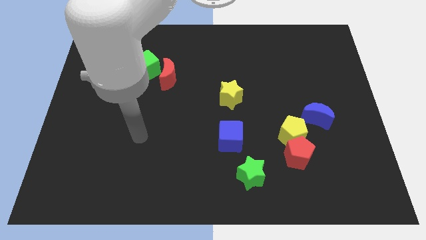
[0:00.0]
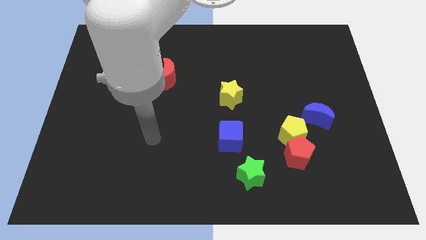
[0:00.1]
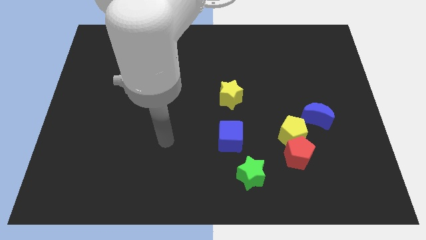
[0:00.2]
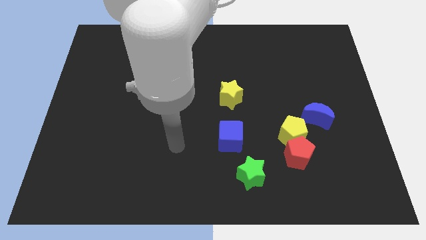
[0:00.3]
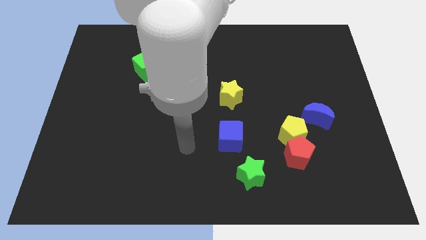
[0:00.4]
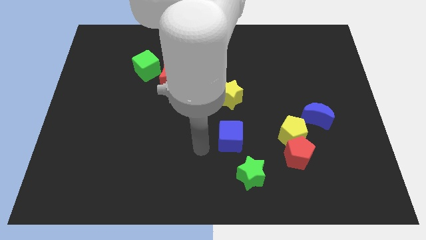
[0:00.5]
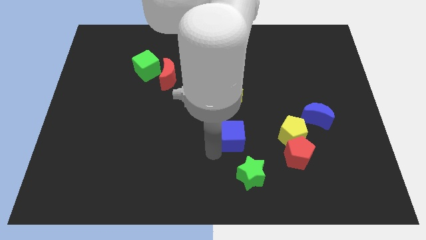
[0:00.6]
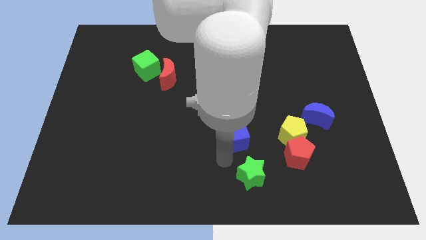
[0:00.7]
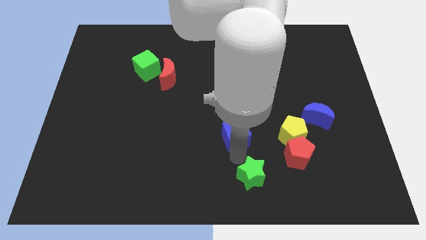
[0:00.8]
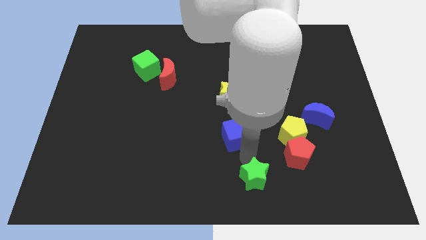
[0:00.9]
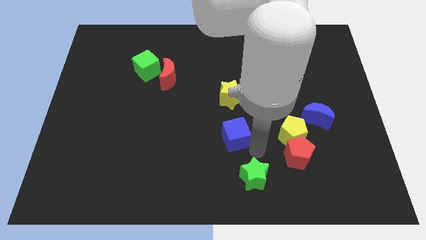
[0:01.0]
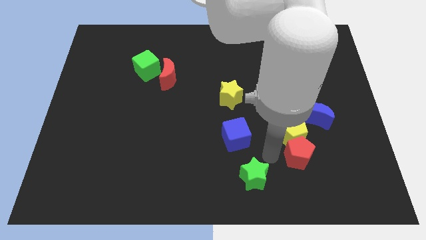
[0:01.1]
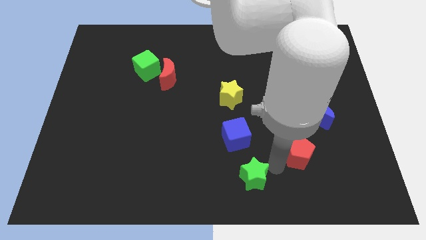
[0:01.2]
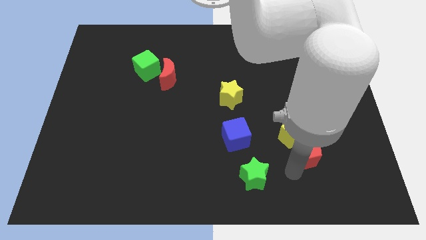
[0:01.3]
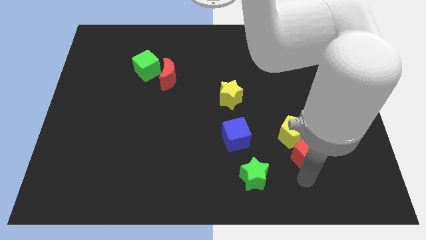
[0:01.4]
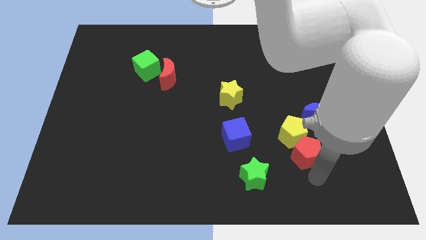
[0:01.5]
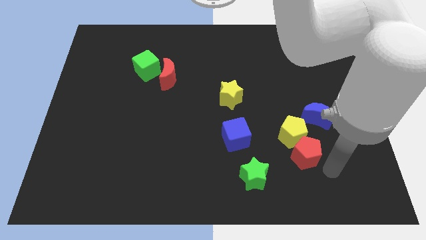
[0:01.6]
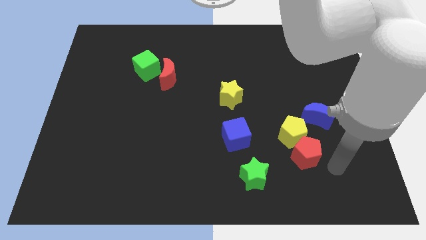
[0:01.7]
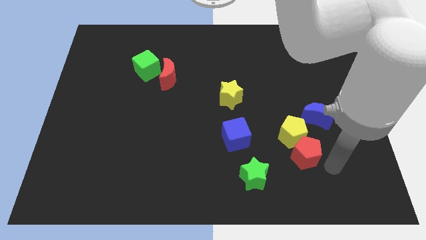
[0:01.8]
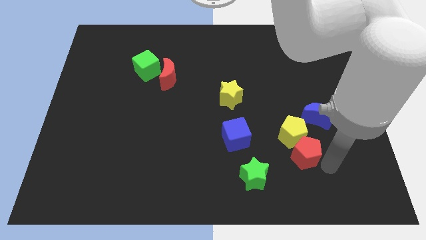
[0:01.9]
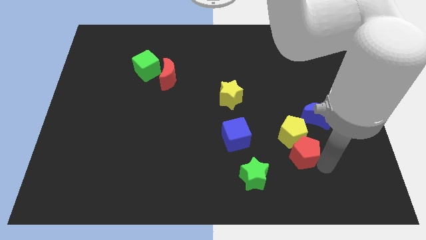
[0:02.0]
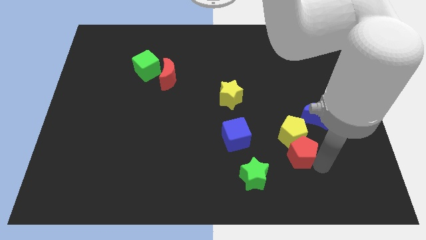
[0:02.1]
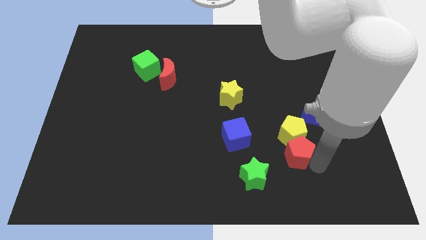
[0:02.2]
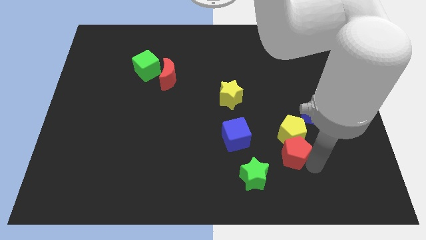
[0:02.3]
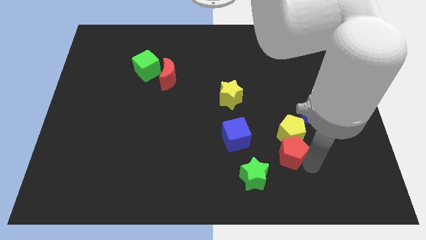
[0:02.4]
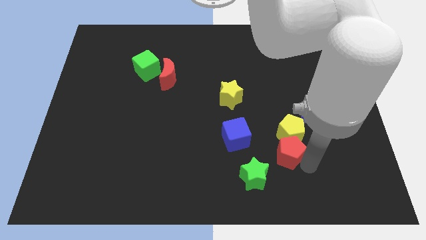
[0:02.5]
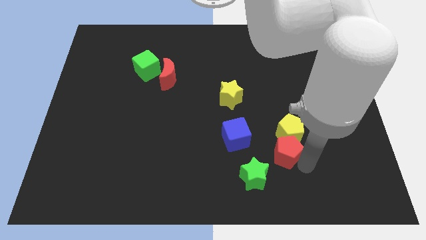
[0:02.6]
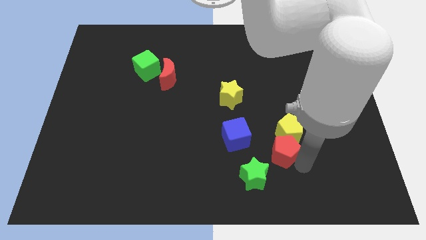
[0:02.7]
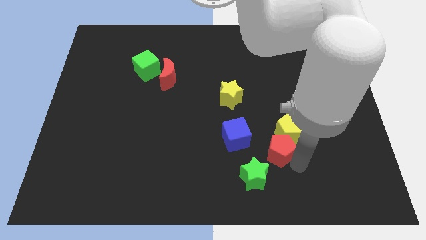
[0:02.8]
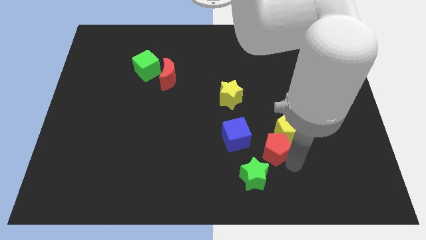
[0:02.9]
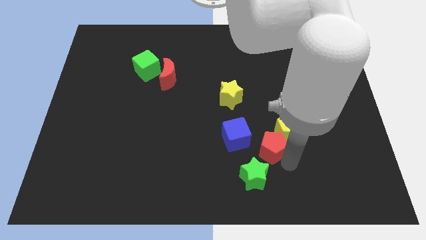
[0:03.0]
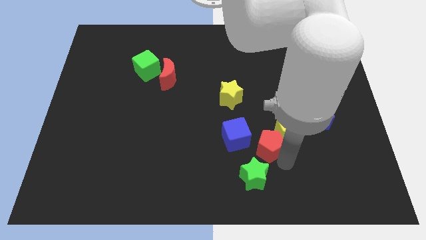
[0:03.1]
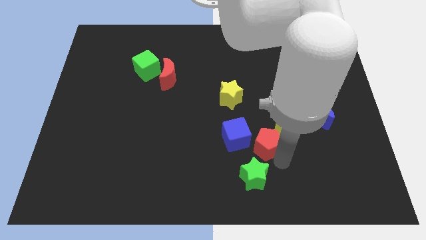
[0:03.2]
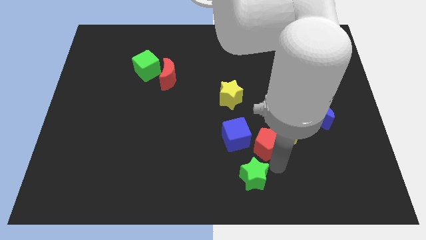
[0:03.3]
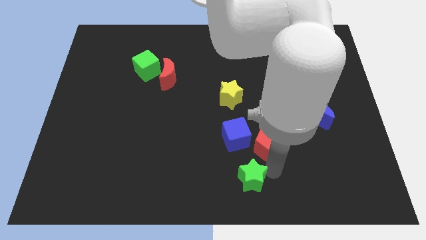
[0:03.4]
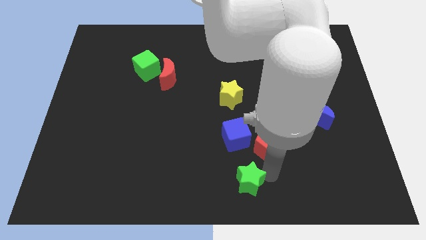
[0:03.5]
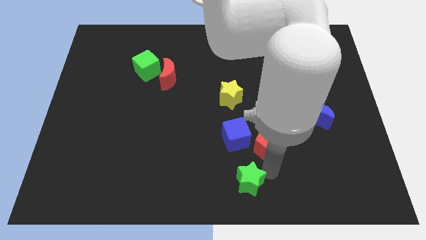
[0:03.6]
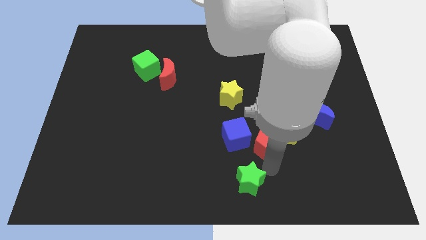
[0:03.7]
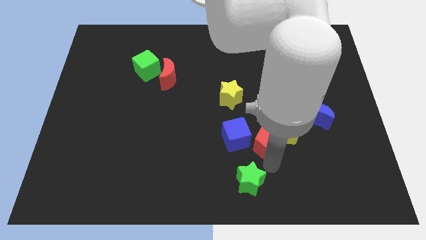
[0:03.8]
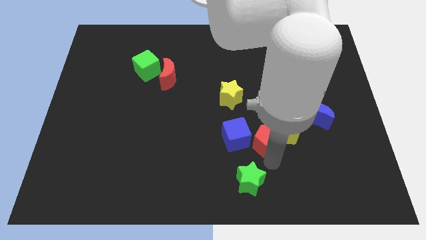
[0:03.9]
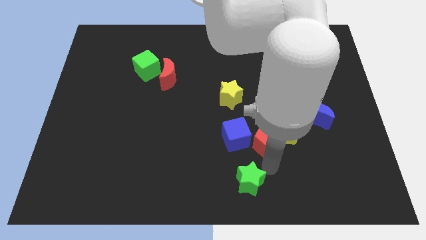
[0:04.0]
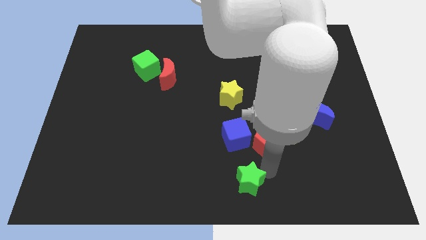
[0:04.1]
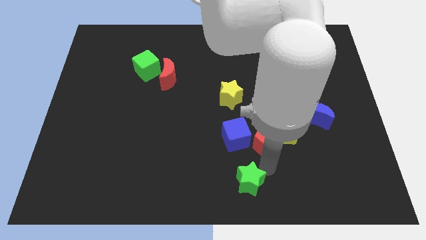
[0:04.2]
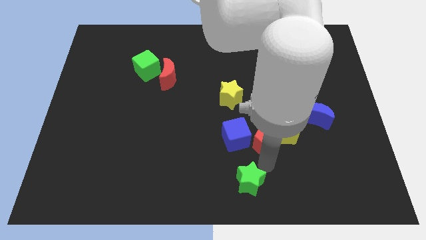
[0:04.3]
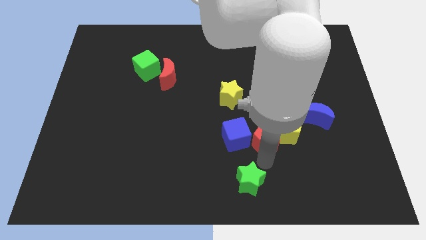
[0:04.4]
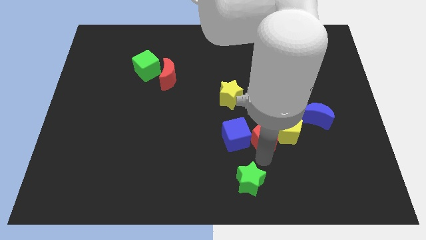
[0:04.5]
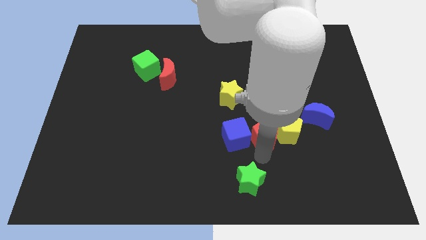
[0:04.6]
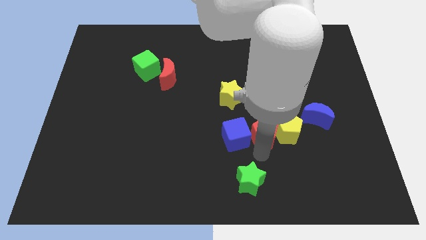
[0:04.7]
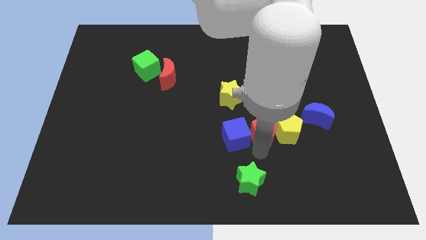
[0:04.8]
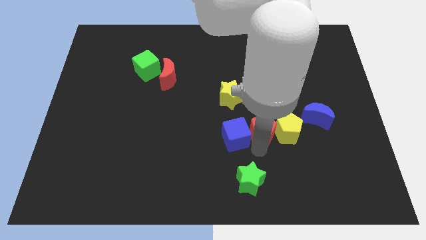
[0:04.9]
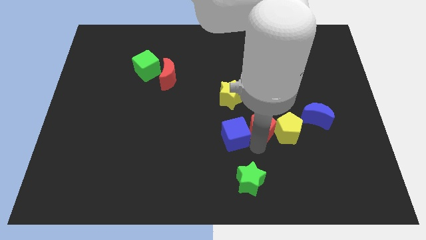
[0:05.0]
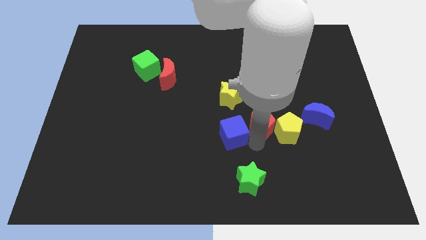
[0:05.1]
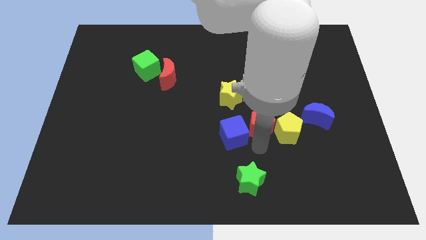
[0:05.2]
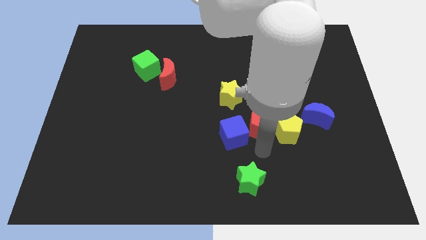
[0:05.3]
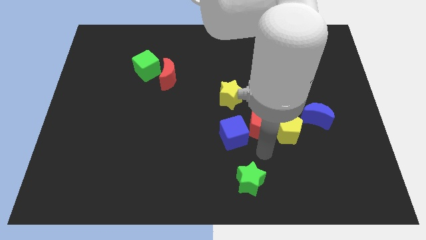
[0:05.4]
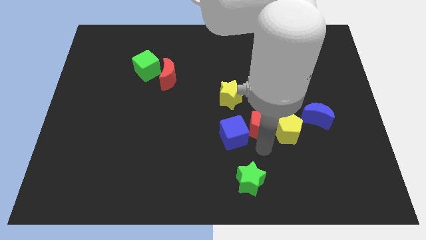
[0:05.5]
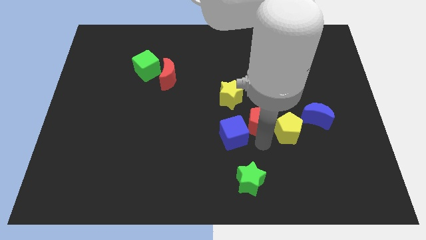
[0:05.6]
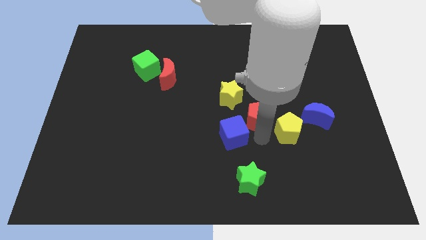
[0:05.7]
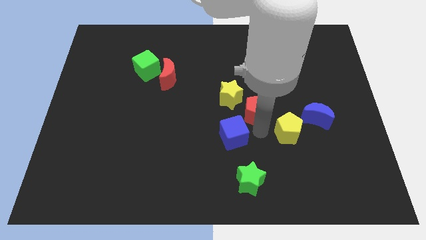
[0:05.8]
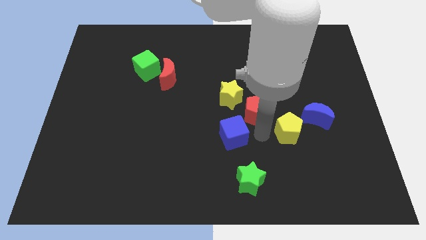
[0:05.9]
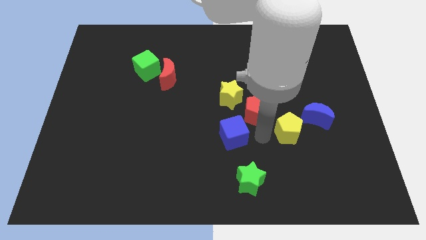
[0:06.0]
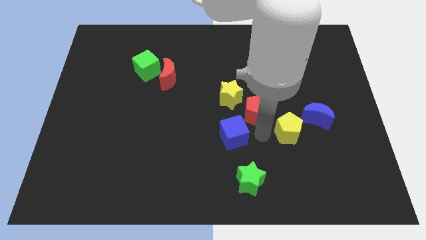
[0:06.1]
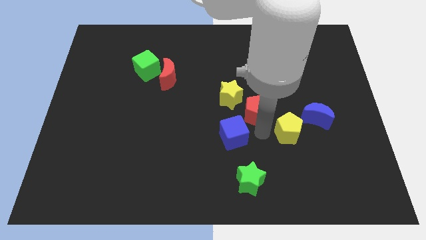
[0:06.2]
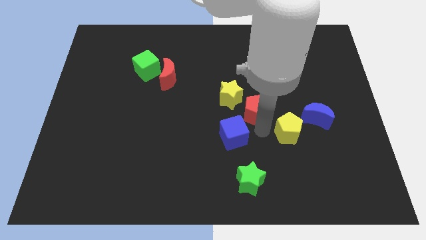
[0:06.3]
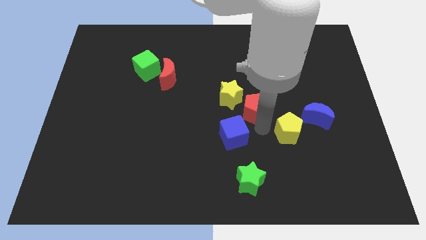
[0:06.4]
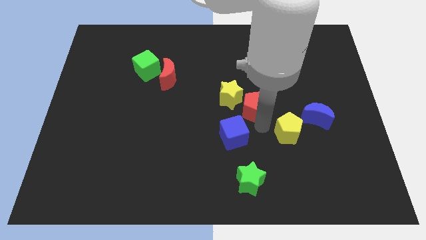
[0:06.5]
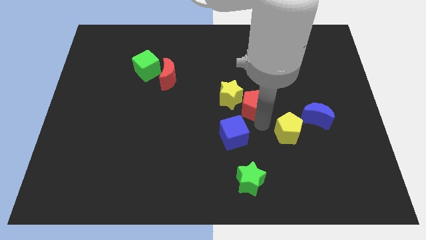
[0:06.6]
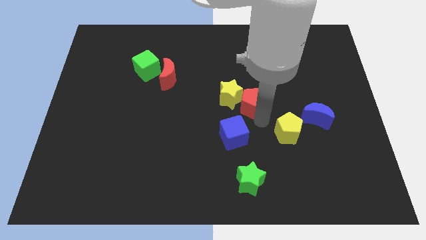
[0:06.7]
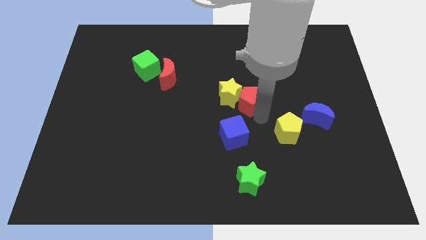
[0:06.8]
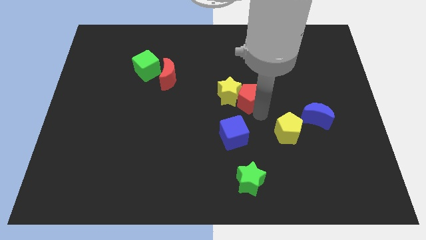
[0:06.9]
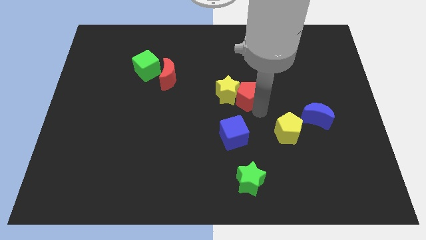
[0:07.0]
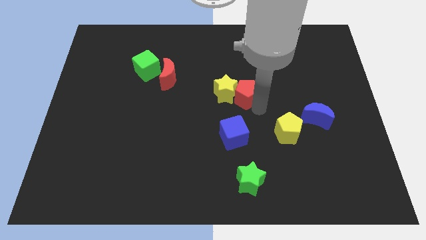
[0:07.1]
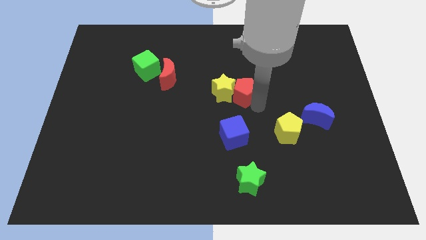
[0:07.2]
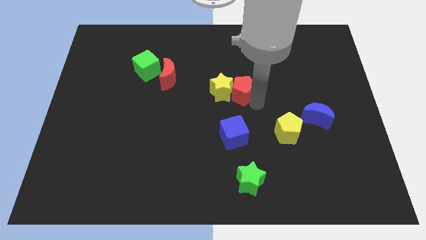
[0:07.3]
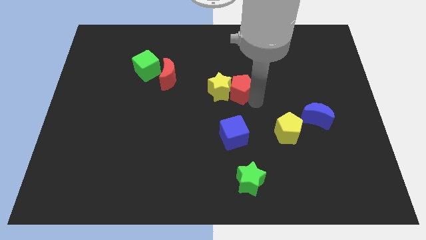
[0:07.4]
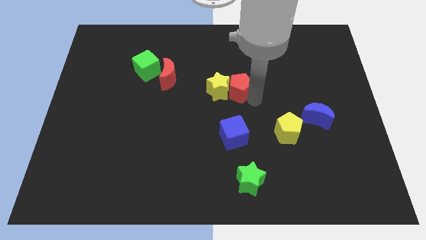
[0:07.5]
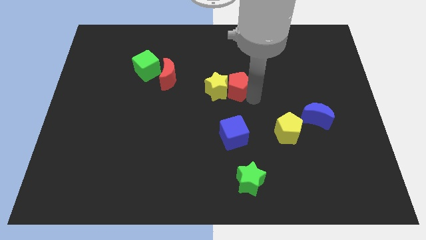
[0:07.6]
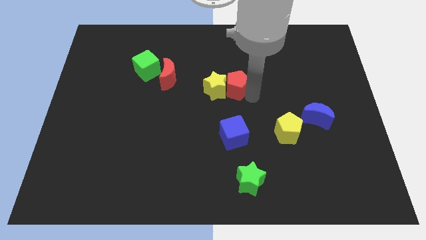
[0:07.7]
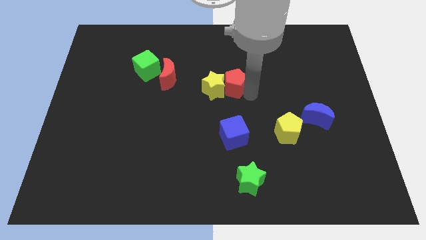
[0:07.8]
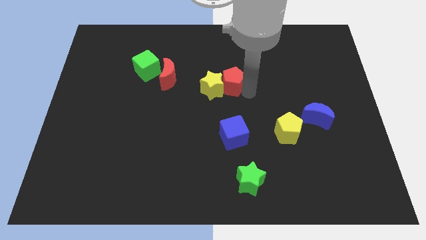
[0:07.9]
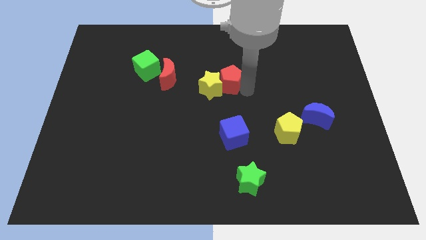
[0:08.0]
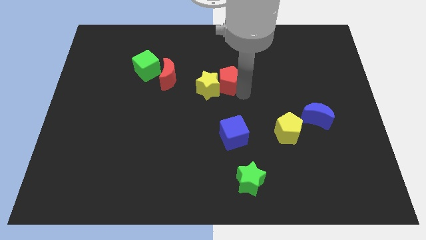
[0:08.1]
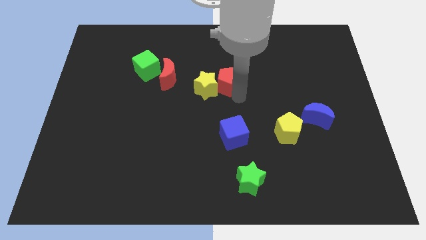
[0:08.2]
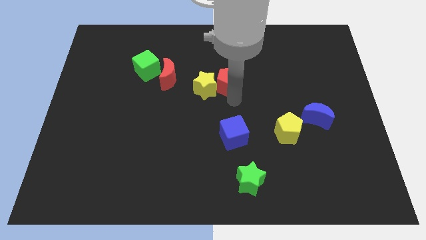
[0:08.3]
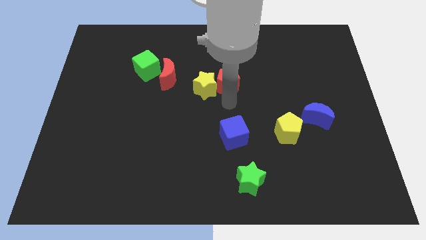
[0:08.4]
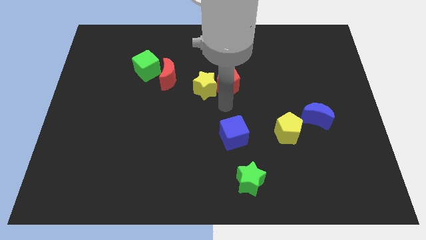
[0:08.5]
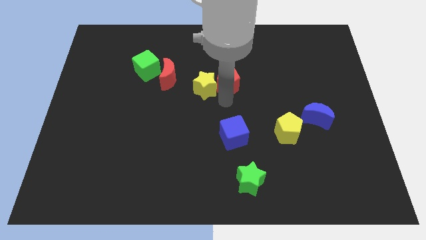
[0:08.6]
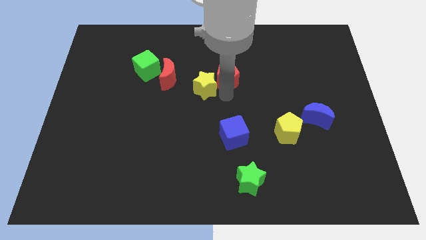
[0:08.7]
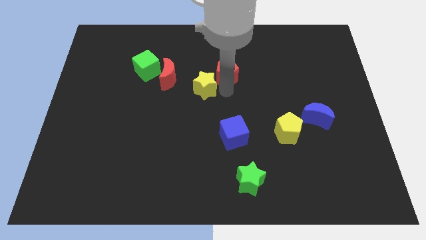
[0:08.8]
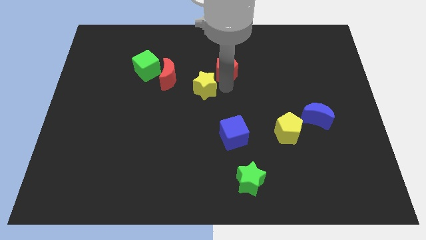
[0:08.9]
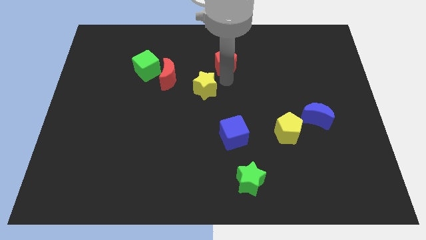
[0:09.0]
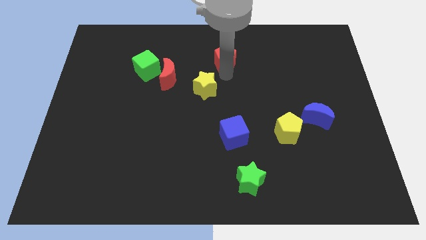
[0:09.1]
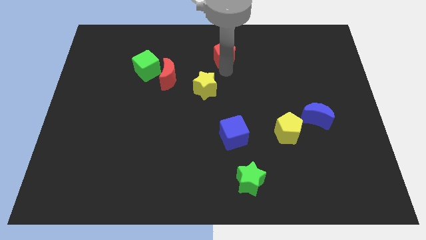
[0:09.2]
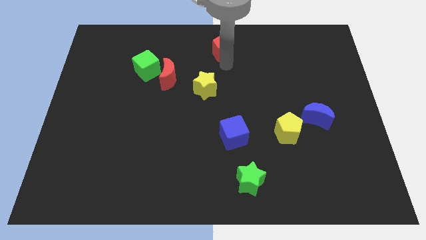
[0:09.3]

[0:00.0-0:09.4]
put the red pentagon to the top side
